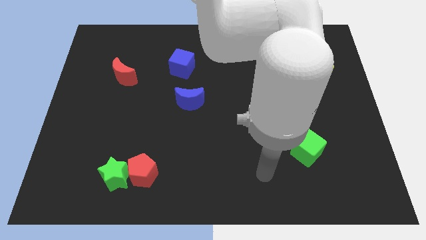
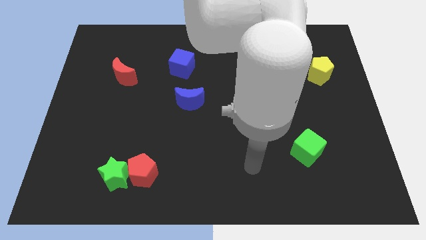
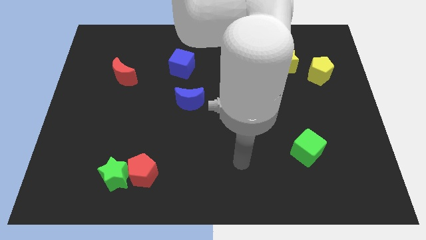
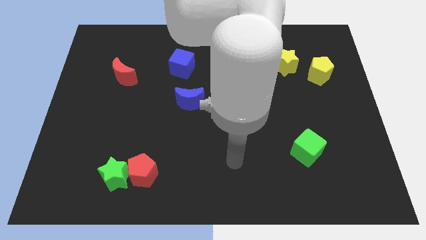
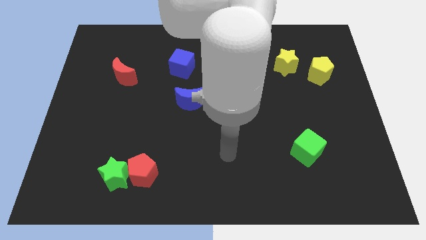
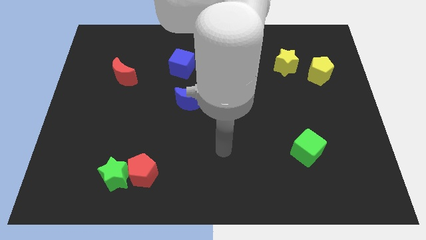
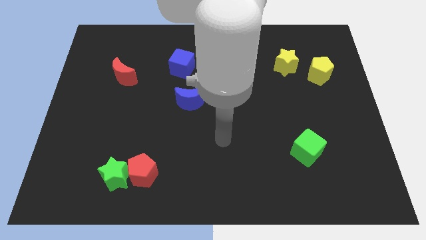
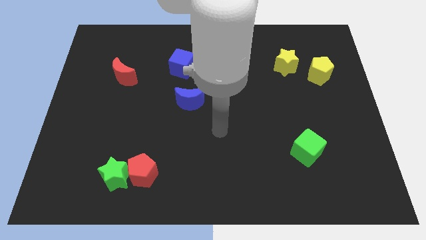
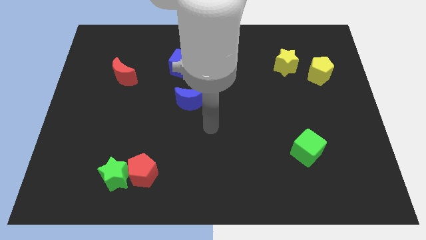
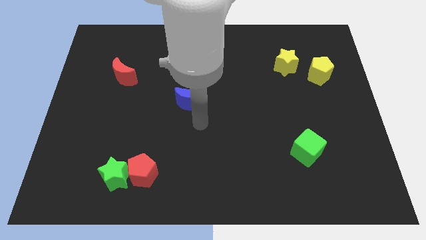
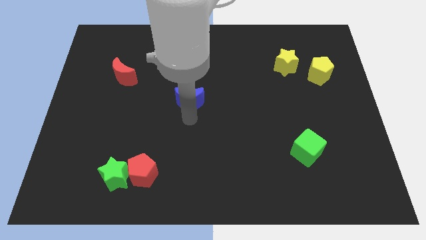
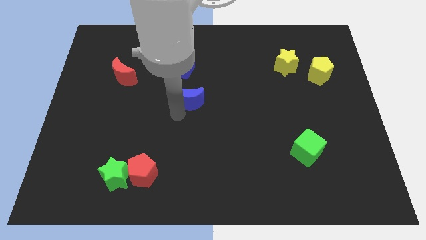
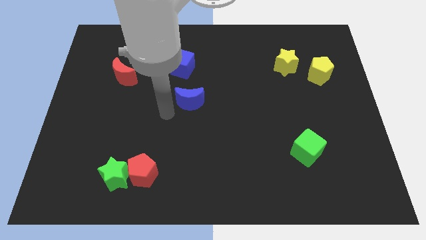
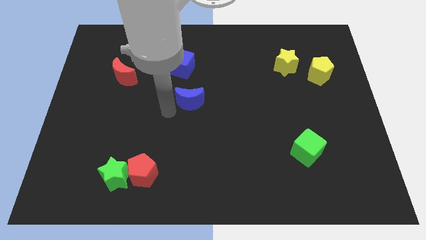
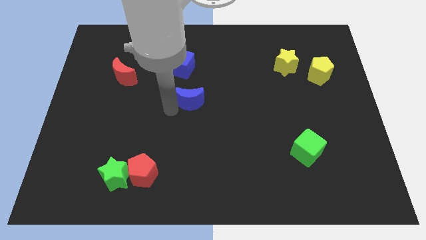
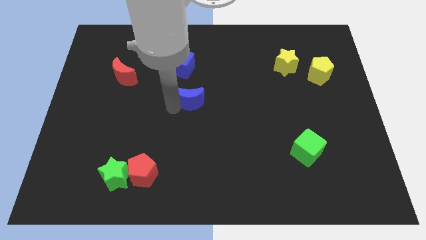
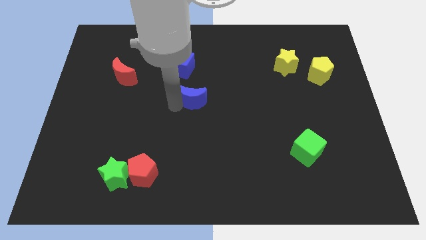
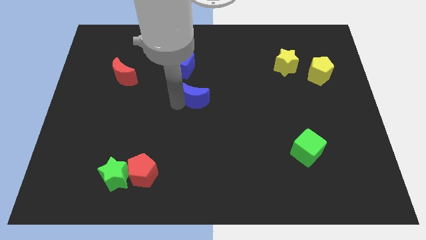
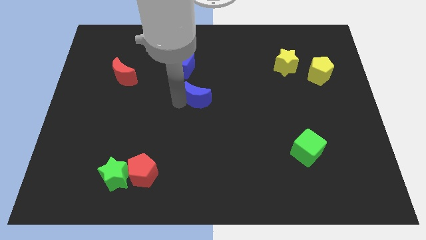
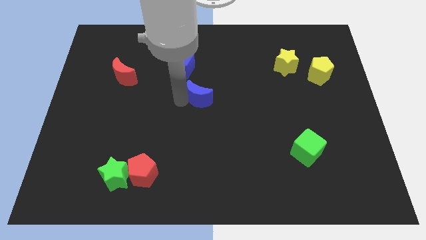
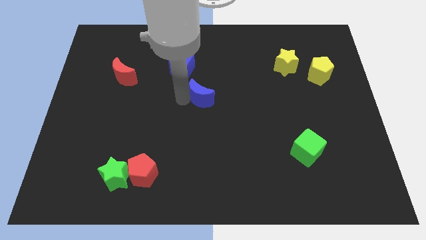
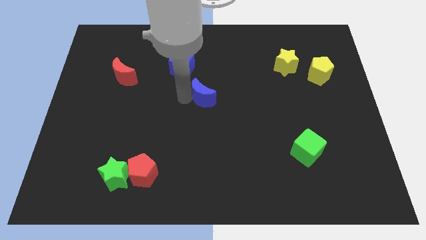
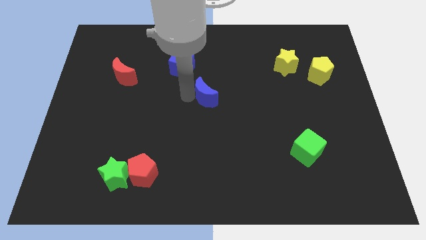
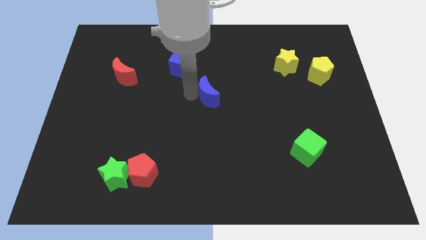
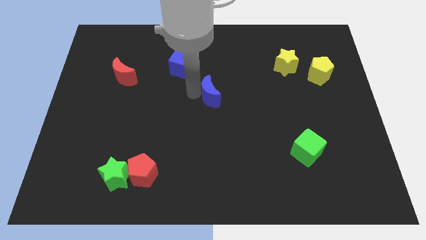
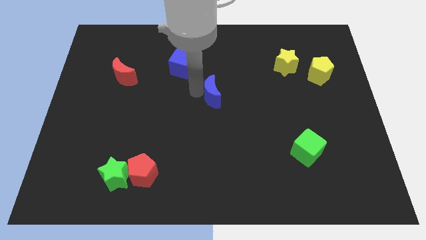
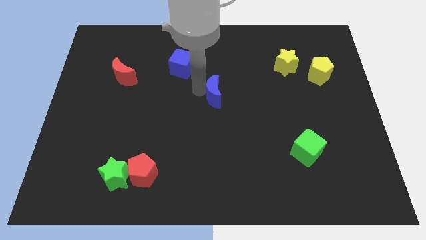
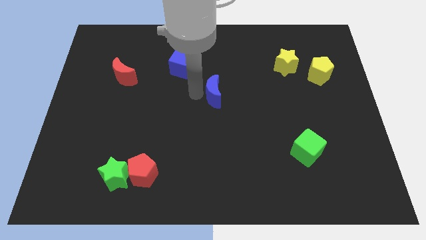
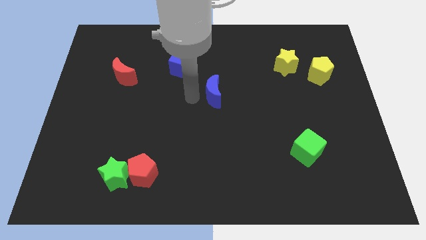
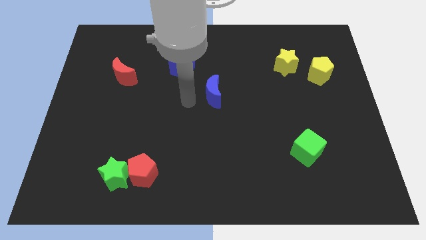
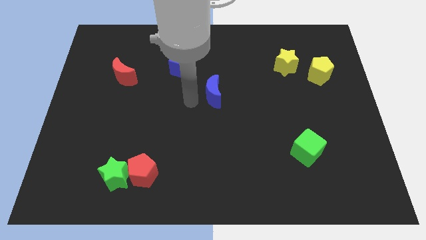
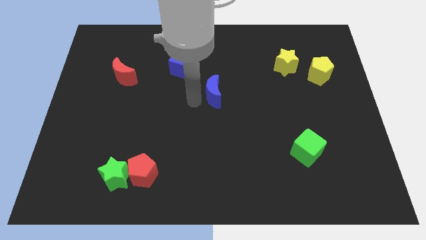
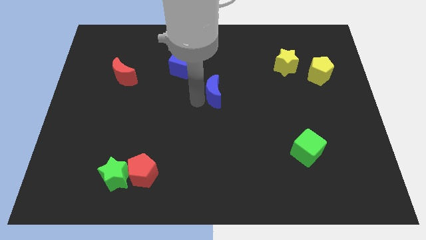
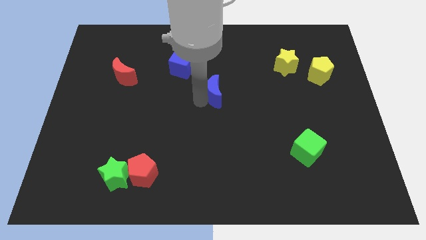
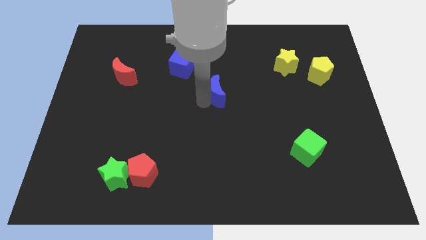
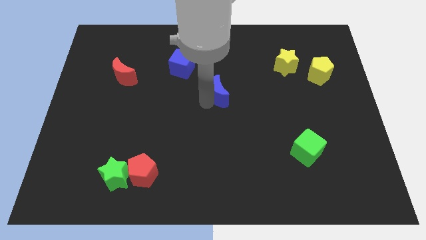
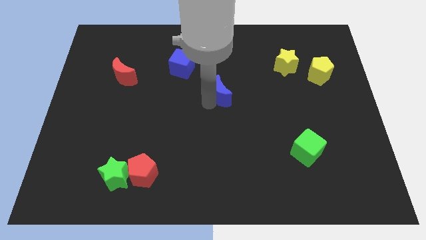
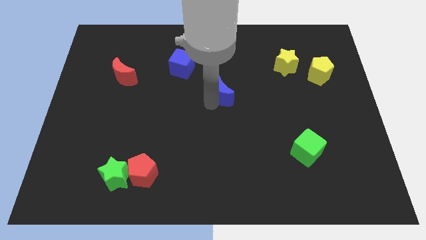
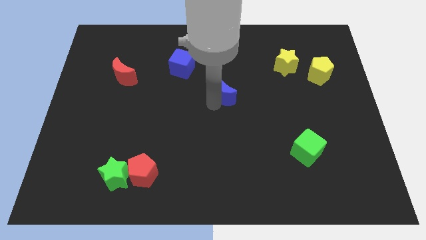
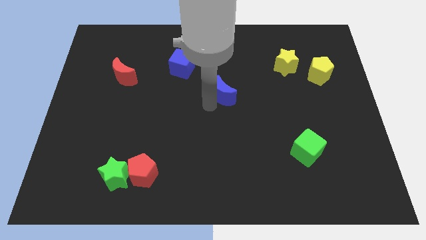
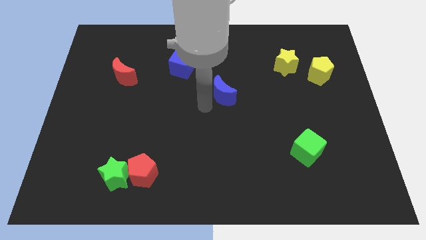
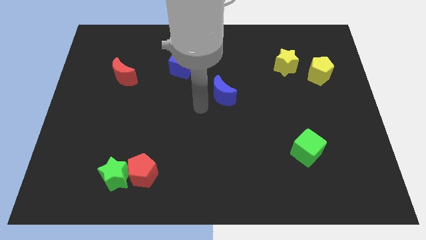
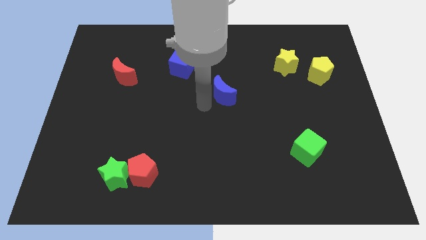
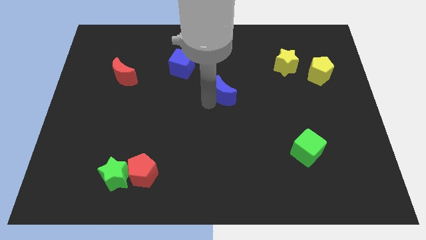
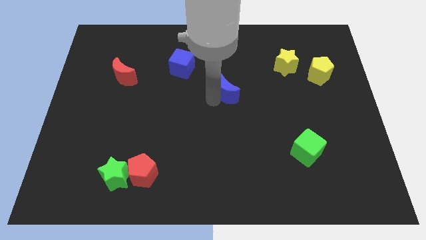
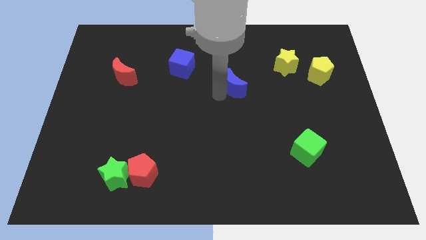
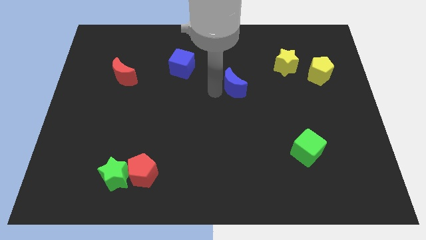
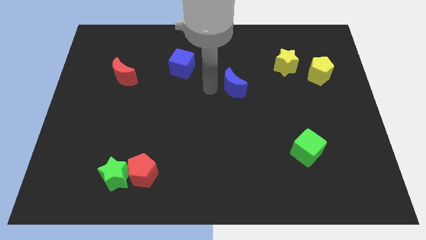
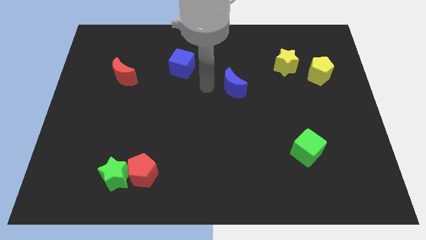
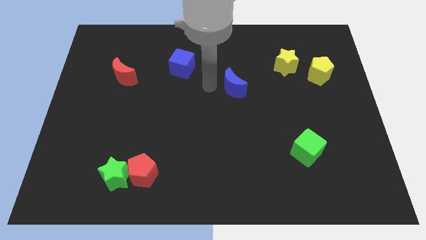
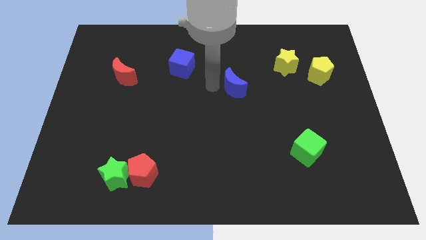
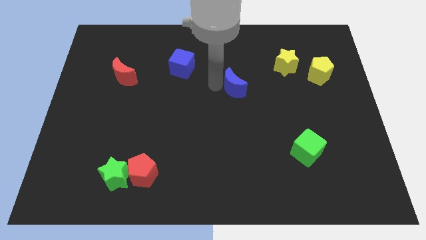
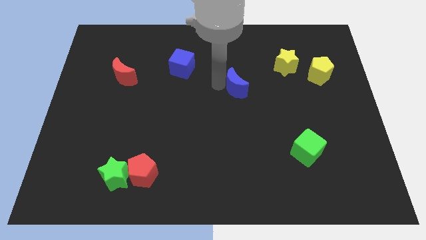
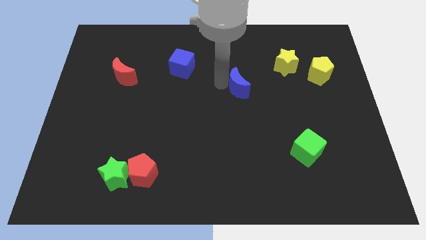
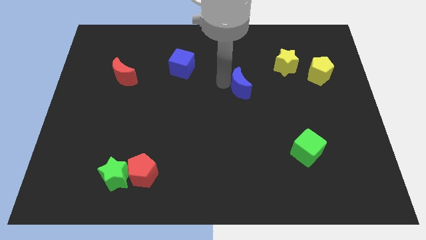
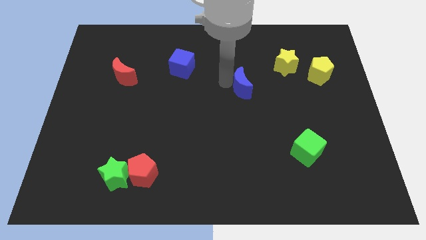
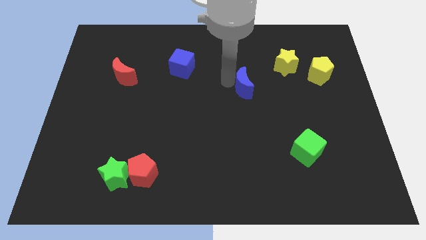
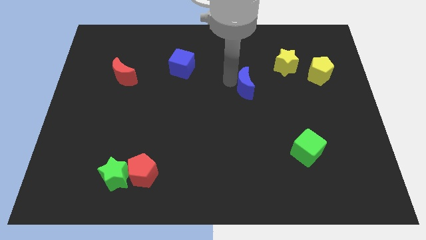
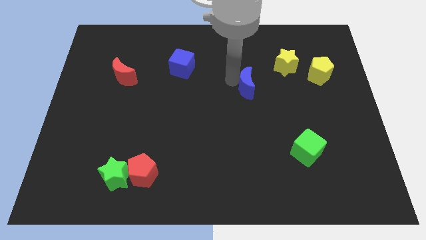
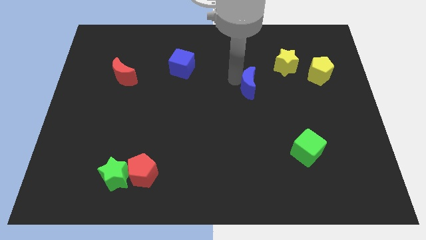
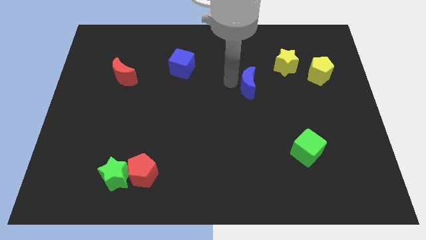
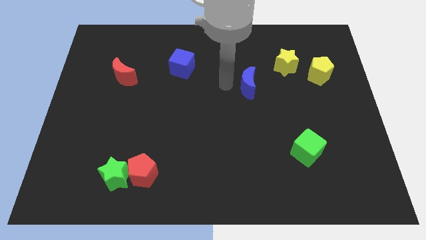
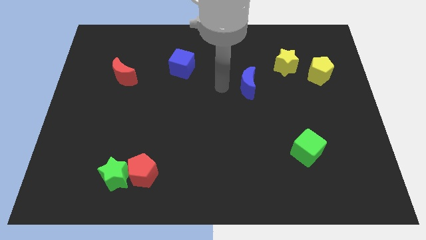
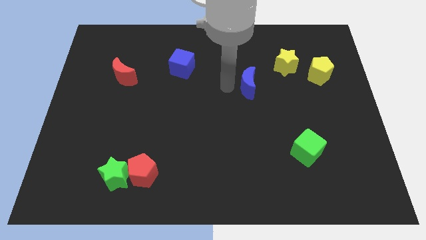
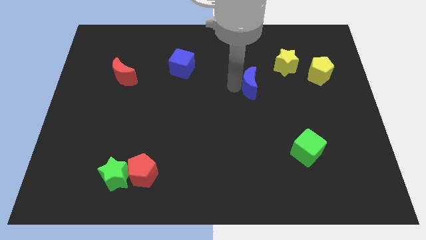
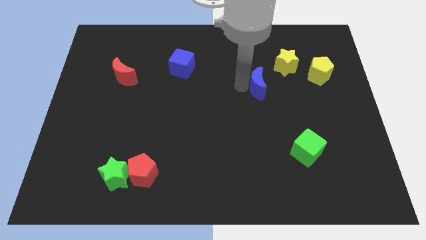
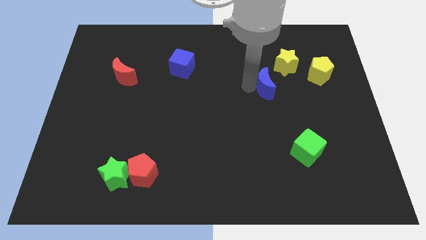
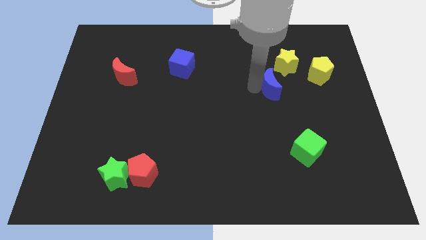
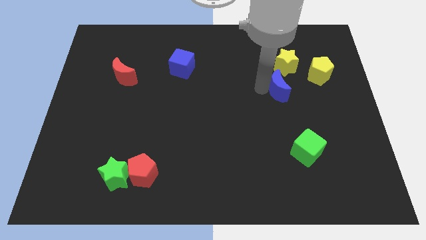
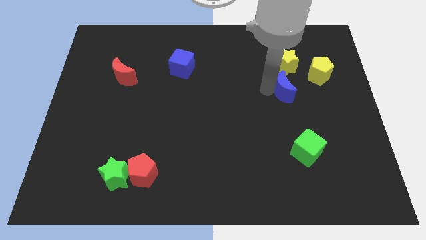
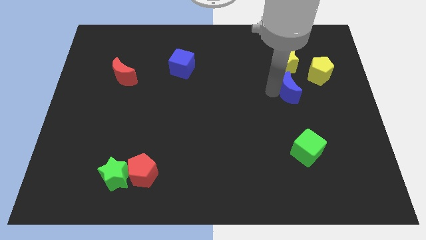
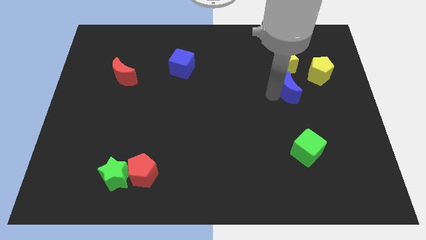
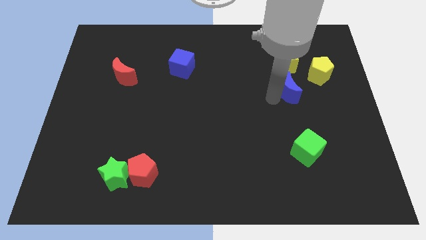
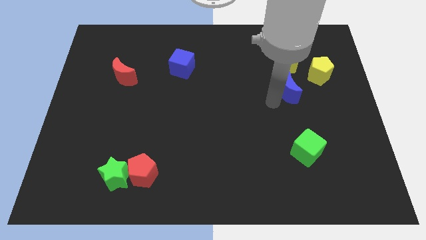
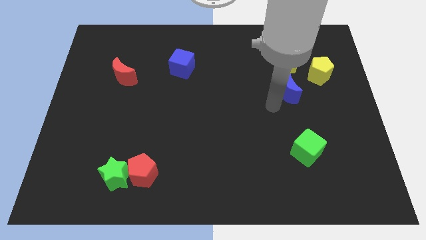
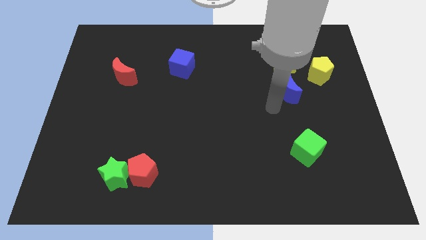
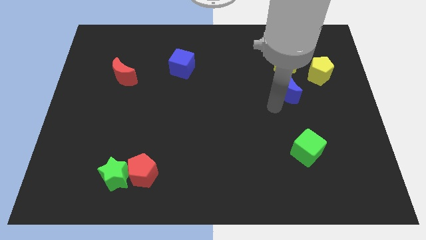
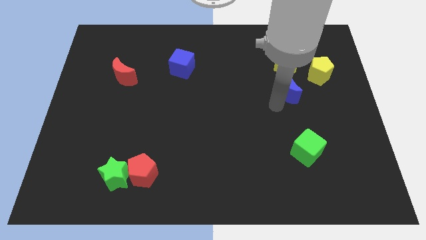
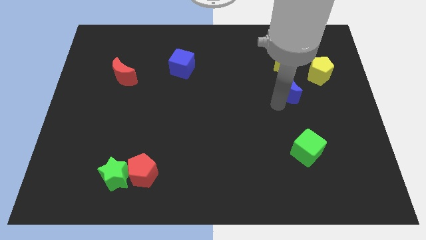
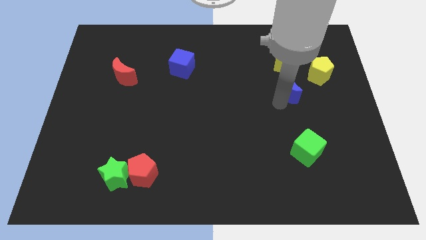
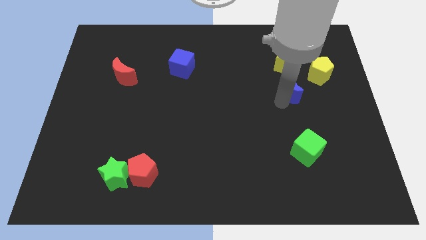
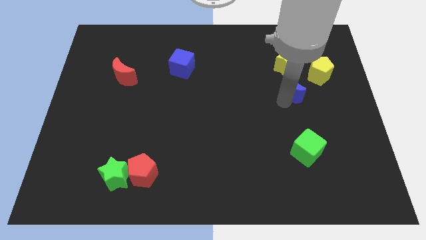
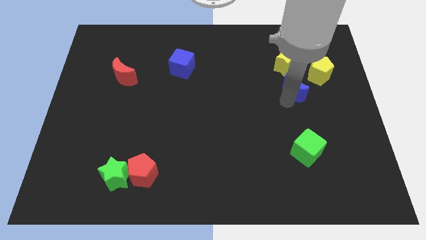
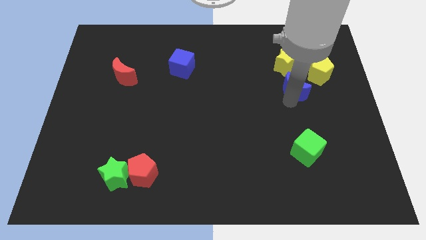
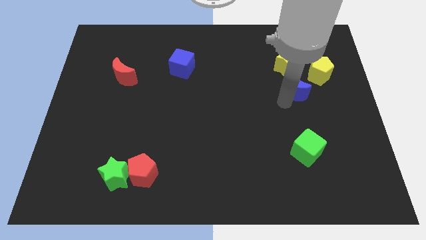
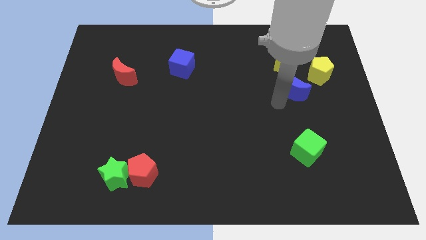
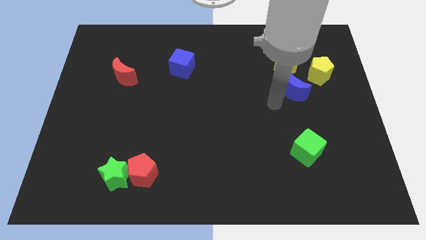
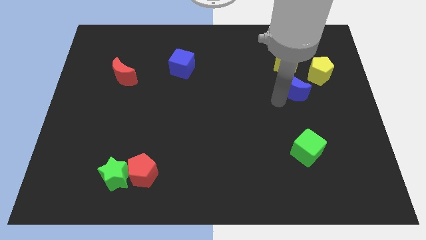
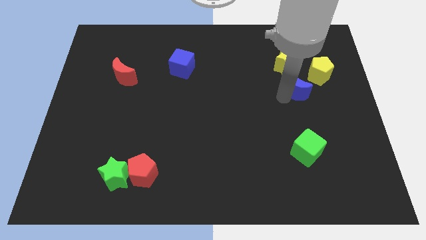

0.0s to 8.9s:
put the blue moon diagonally down and to the right of the yellow star
